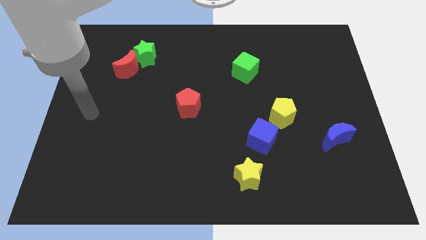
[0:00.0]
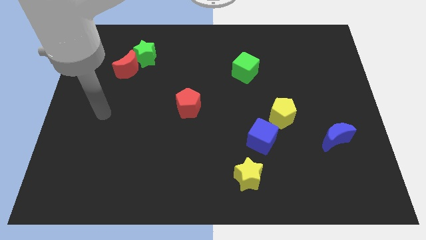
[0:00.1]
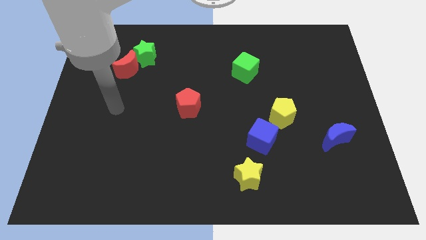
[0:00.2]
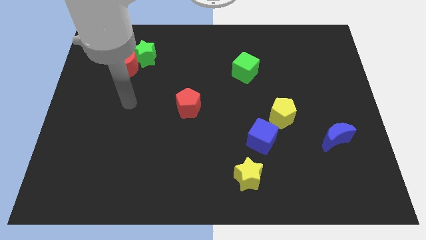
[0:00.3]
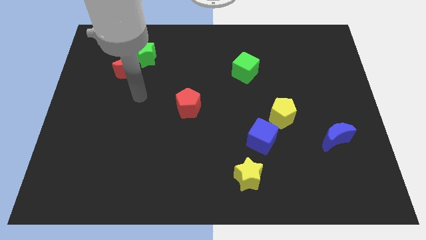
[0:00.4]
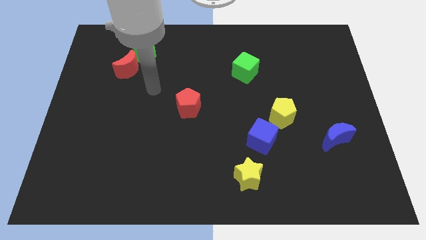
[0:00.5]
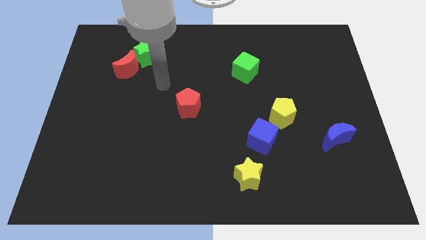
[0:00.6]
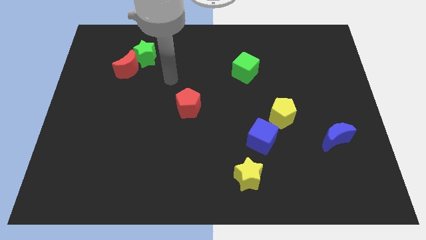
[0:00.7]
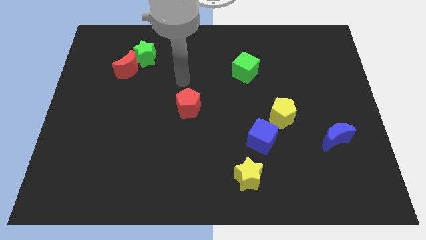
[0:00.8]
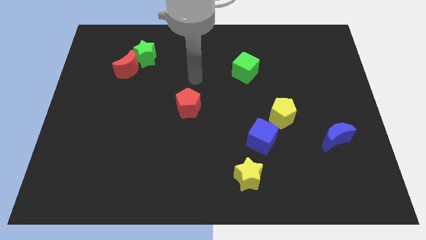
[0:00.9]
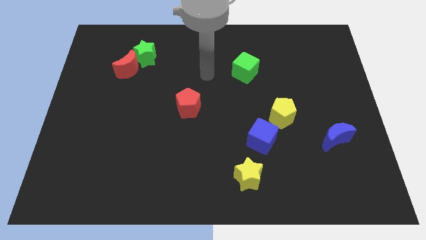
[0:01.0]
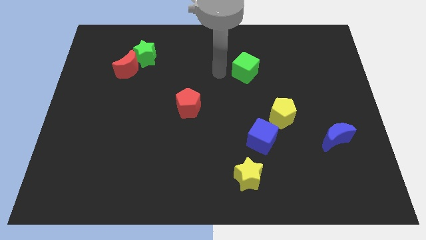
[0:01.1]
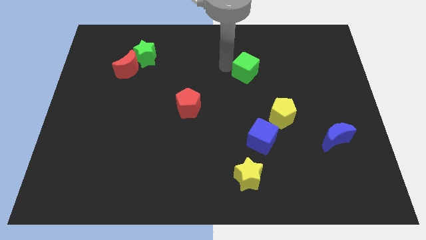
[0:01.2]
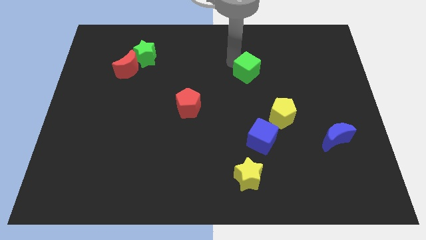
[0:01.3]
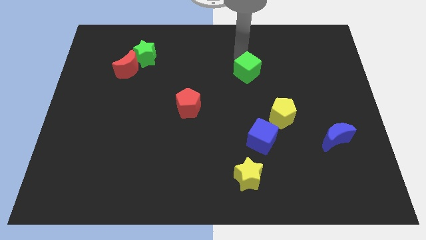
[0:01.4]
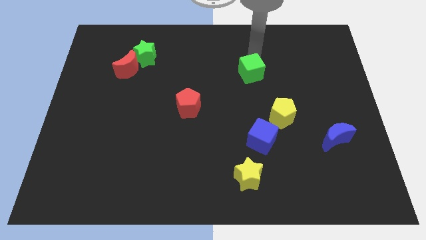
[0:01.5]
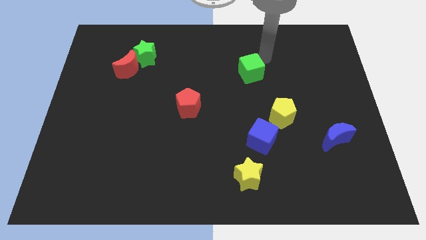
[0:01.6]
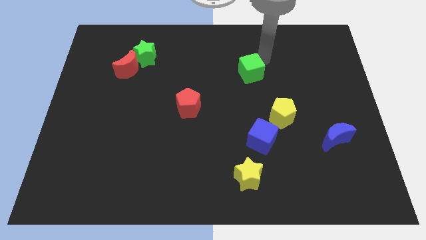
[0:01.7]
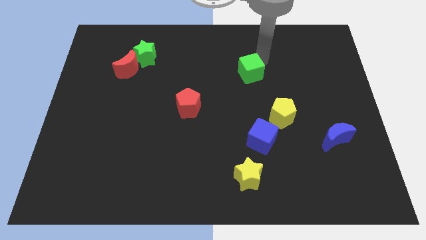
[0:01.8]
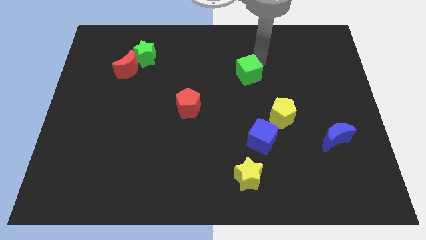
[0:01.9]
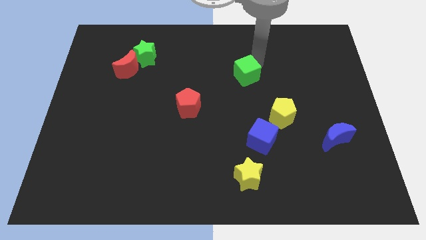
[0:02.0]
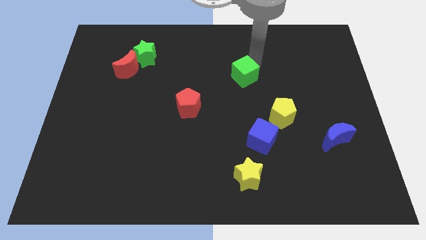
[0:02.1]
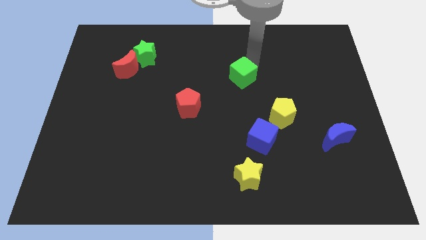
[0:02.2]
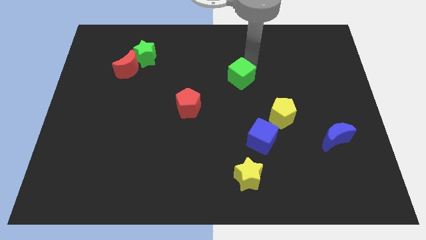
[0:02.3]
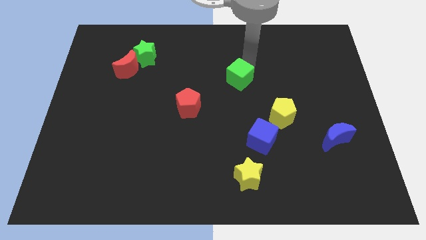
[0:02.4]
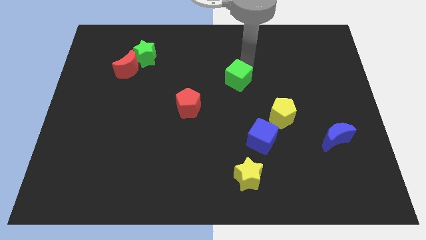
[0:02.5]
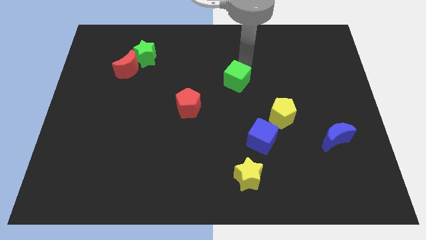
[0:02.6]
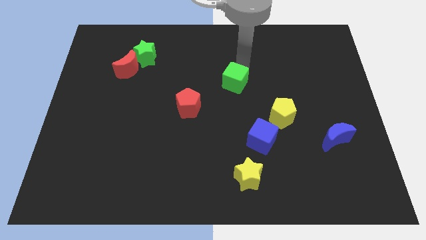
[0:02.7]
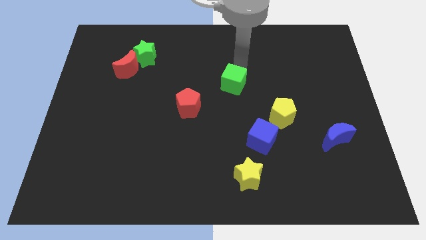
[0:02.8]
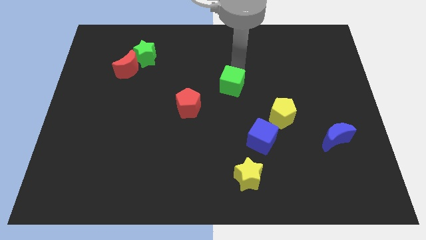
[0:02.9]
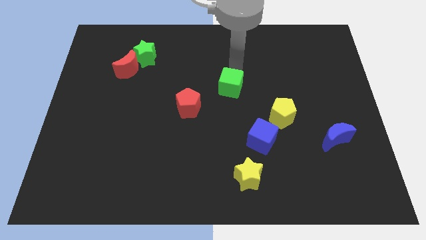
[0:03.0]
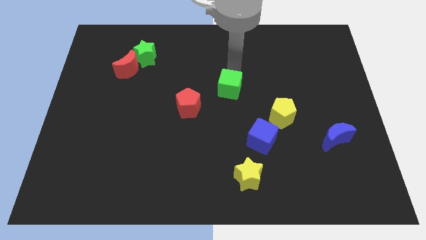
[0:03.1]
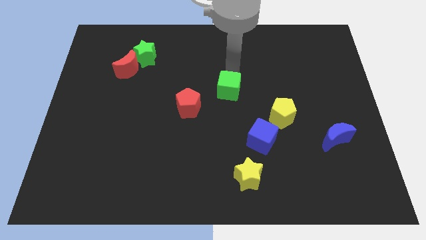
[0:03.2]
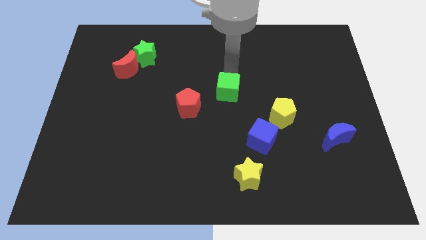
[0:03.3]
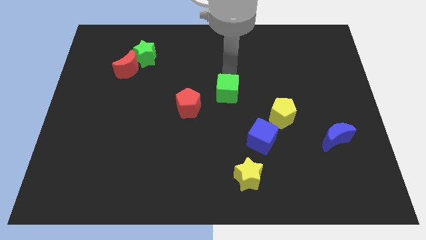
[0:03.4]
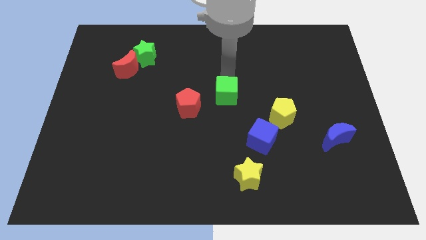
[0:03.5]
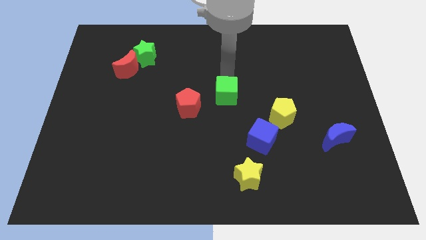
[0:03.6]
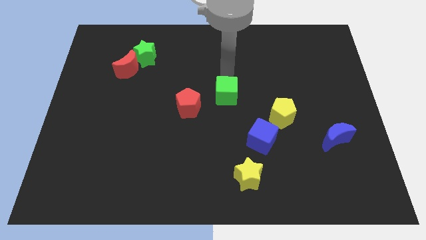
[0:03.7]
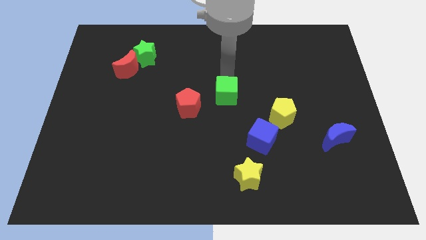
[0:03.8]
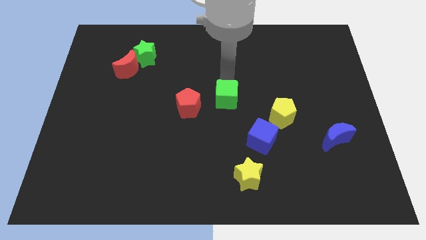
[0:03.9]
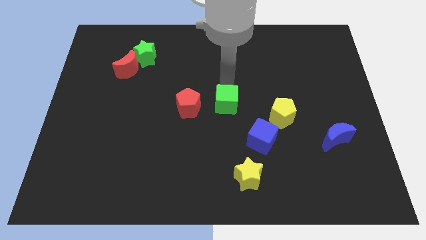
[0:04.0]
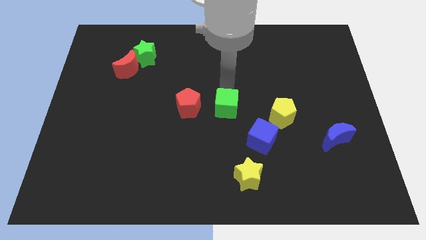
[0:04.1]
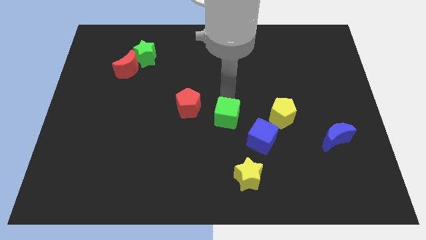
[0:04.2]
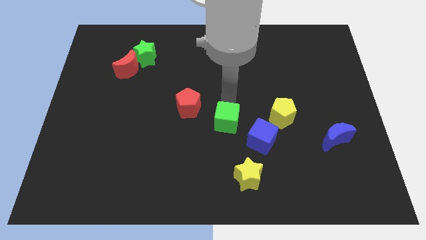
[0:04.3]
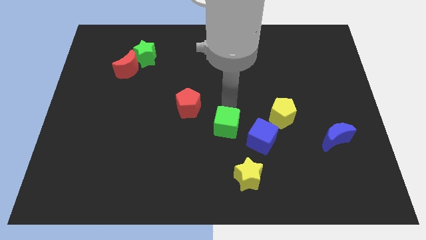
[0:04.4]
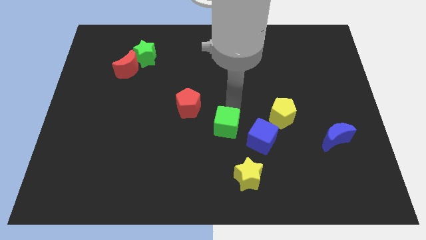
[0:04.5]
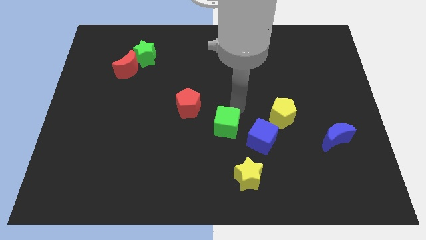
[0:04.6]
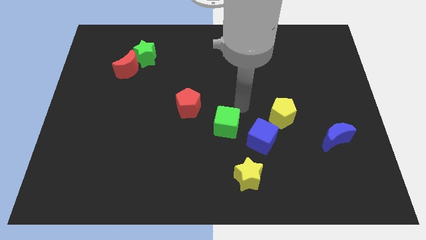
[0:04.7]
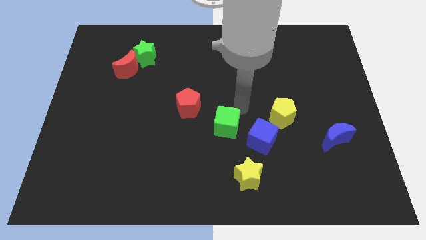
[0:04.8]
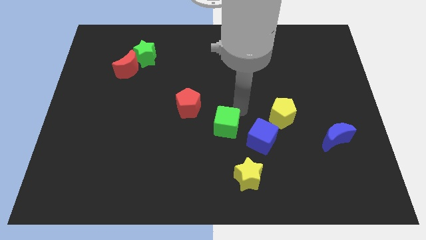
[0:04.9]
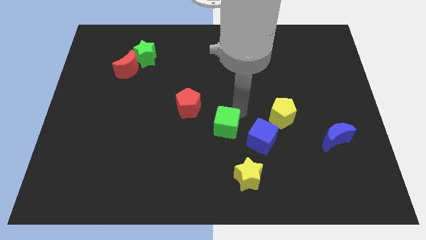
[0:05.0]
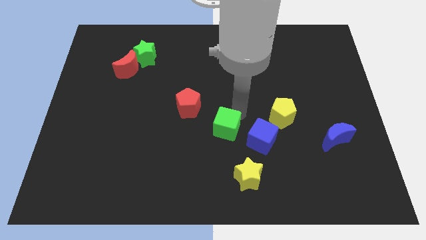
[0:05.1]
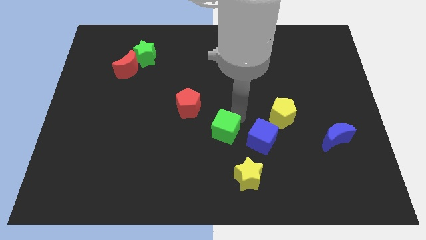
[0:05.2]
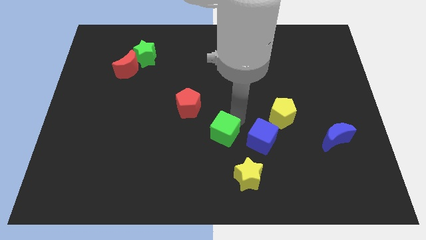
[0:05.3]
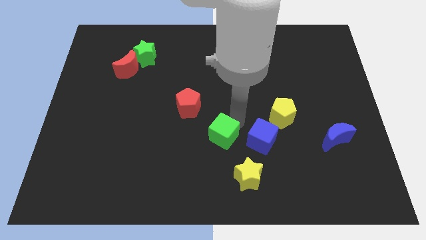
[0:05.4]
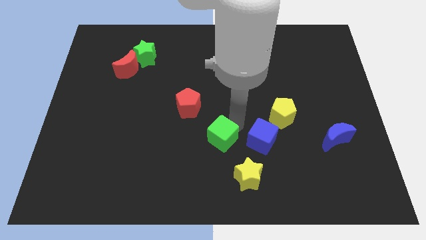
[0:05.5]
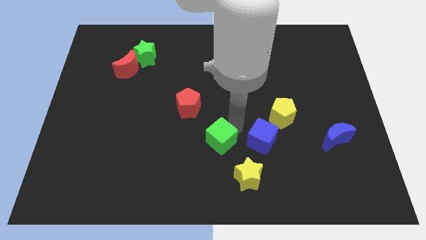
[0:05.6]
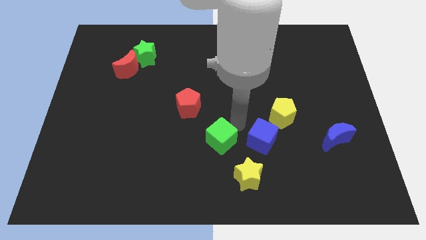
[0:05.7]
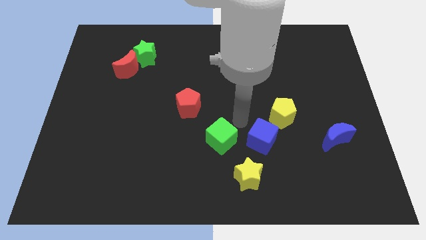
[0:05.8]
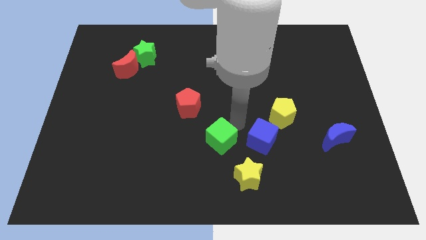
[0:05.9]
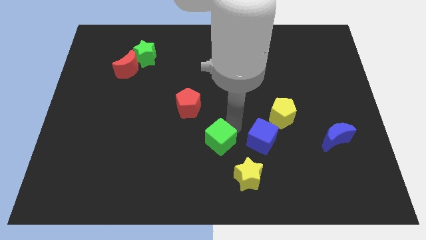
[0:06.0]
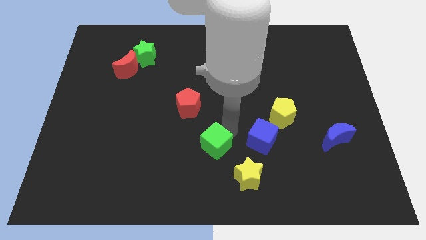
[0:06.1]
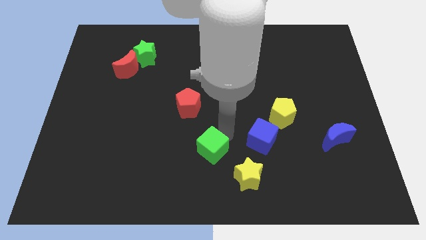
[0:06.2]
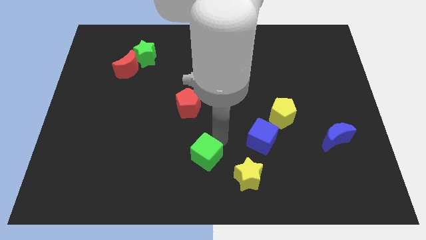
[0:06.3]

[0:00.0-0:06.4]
move the green cube just left of the yellow star
